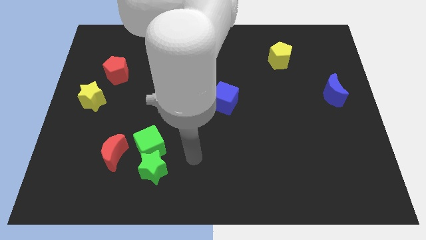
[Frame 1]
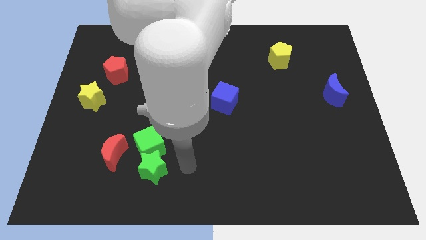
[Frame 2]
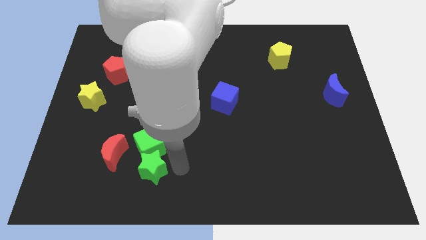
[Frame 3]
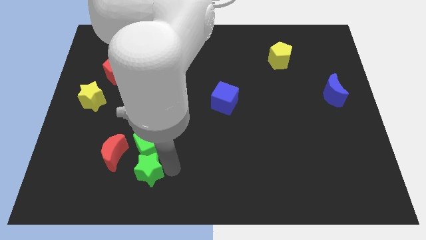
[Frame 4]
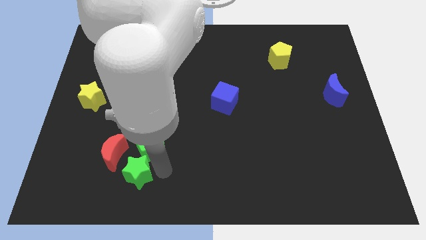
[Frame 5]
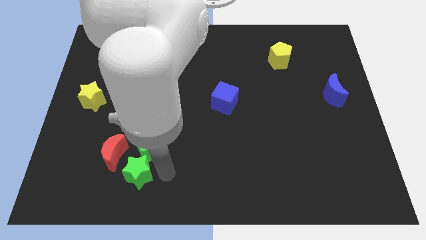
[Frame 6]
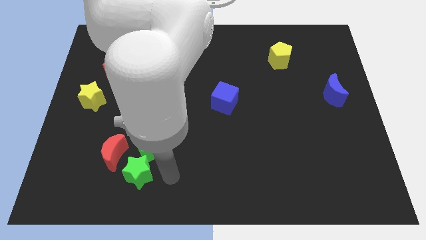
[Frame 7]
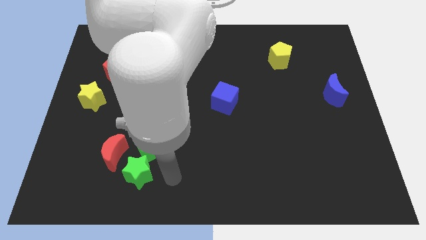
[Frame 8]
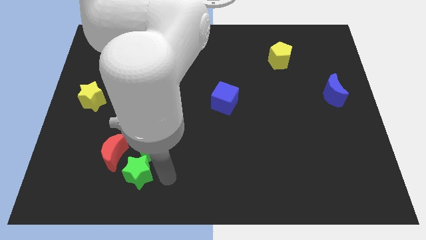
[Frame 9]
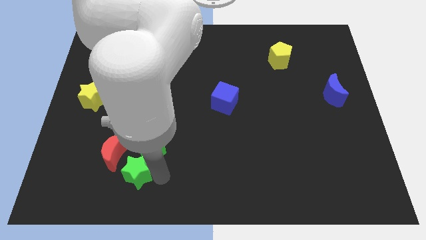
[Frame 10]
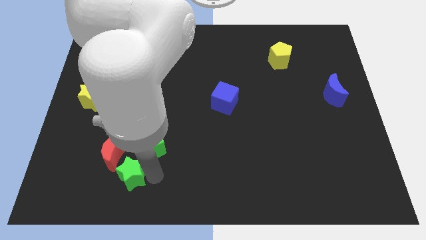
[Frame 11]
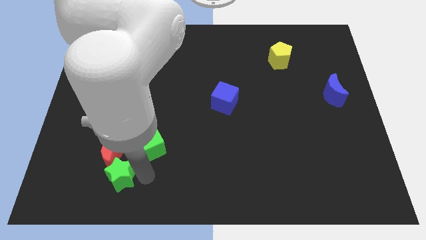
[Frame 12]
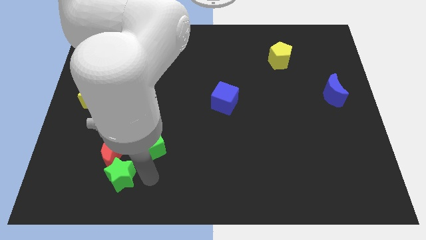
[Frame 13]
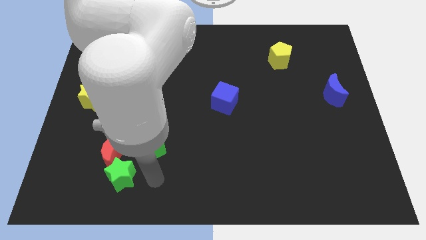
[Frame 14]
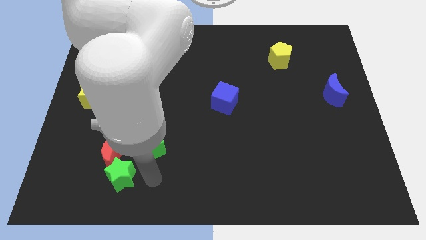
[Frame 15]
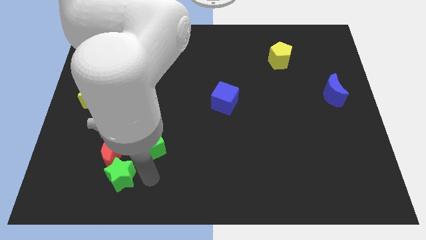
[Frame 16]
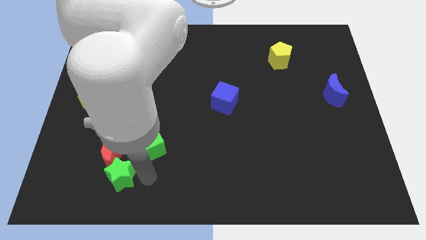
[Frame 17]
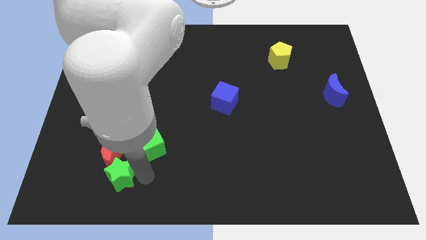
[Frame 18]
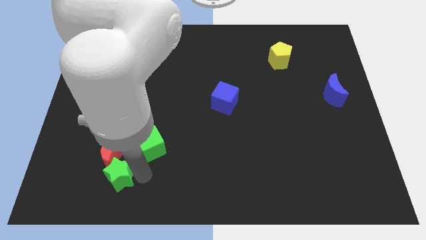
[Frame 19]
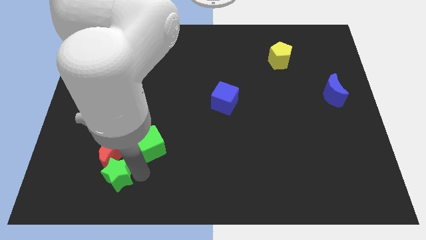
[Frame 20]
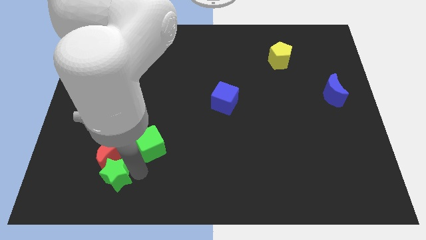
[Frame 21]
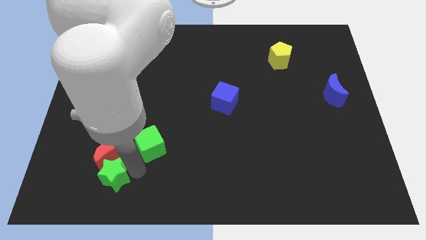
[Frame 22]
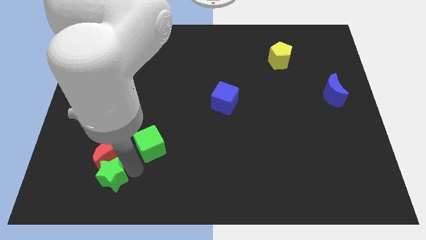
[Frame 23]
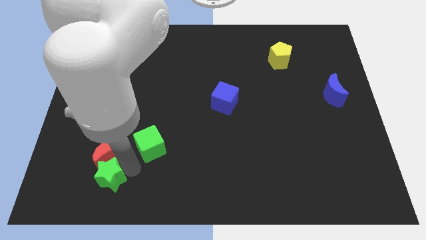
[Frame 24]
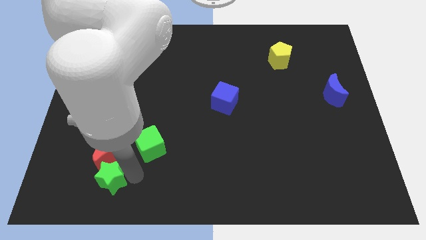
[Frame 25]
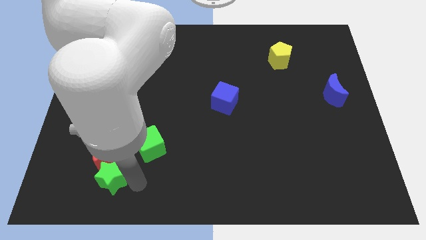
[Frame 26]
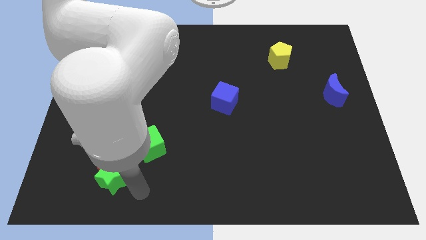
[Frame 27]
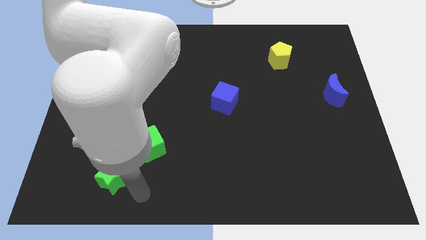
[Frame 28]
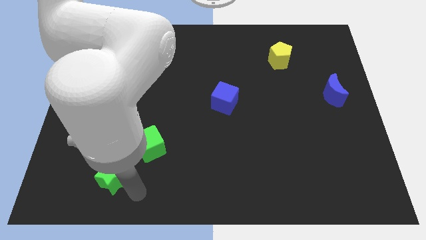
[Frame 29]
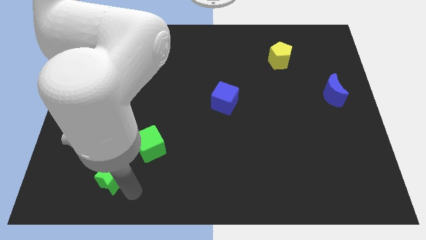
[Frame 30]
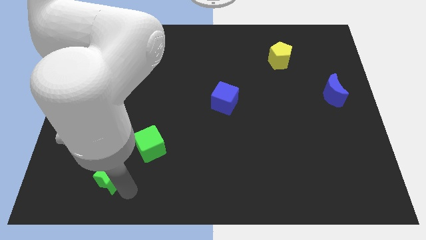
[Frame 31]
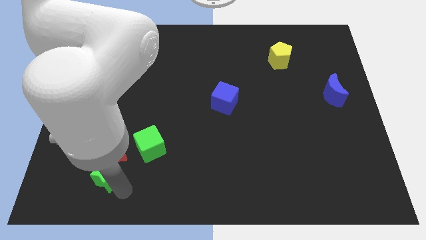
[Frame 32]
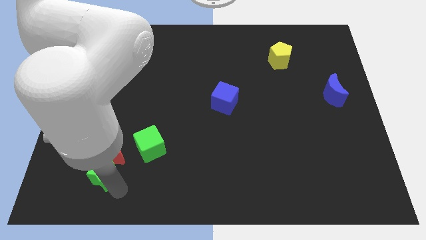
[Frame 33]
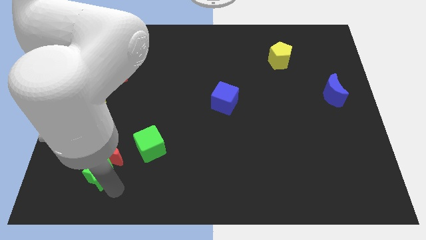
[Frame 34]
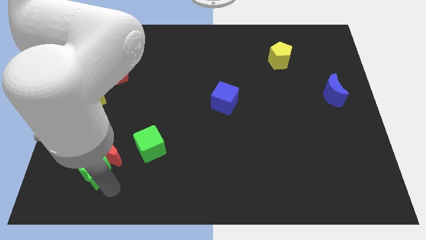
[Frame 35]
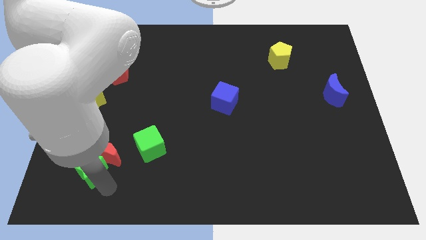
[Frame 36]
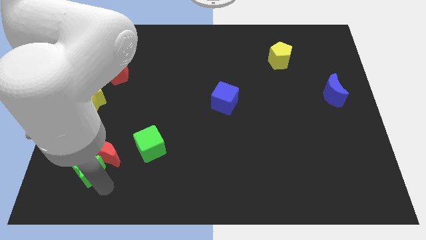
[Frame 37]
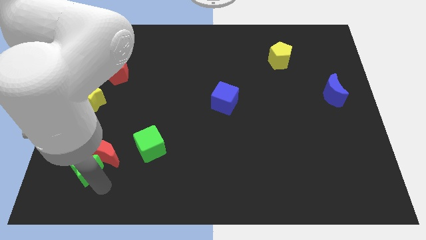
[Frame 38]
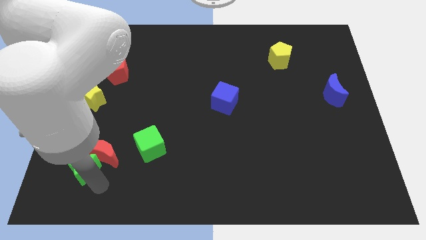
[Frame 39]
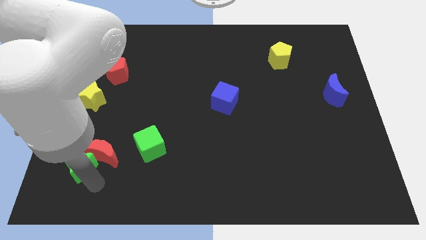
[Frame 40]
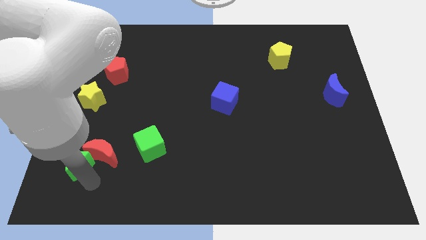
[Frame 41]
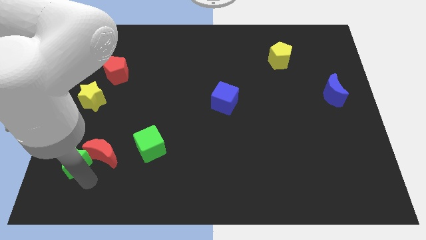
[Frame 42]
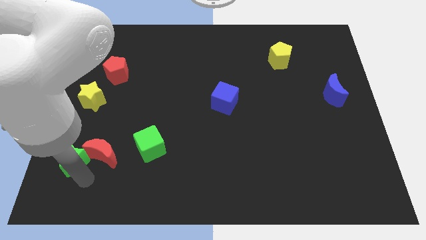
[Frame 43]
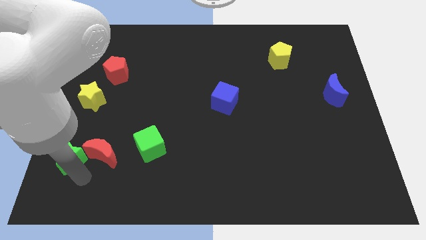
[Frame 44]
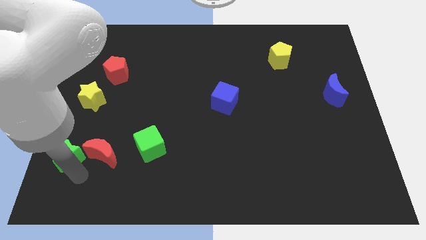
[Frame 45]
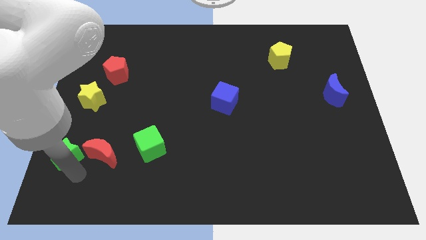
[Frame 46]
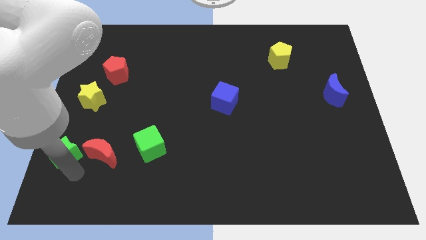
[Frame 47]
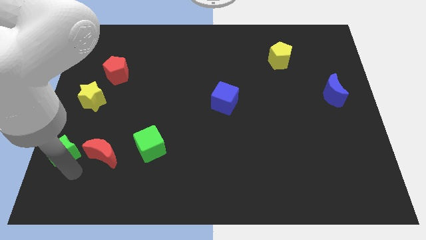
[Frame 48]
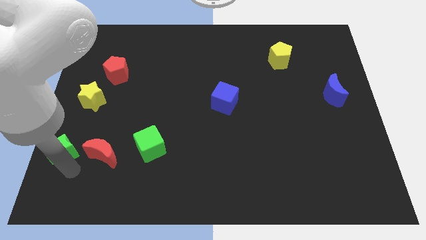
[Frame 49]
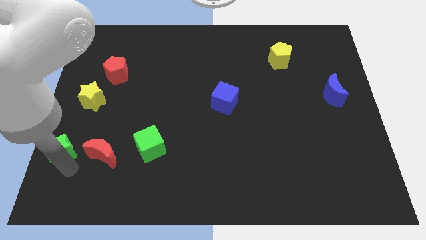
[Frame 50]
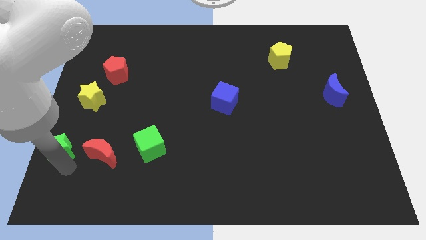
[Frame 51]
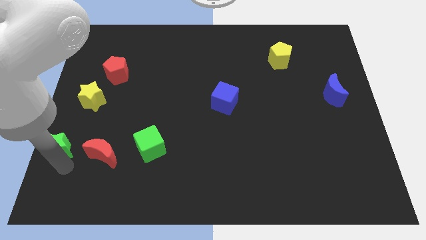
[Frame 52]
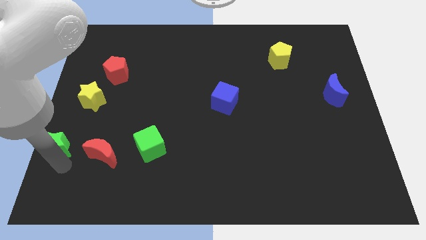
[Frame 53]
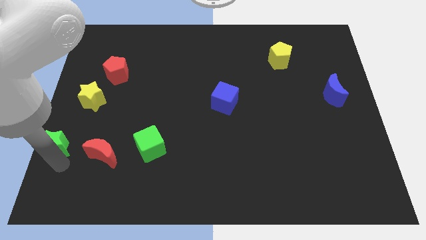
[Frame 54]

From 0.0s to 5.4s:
move the green star to the left side

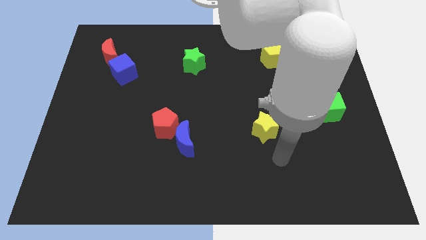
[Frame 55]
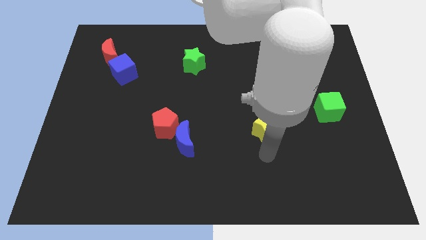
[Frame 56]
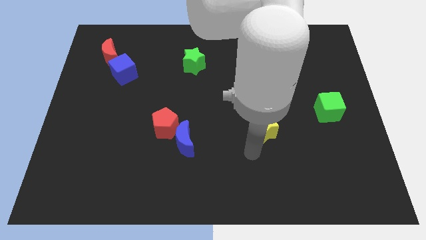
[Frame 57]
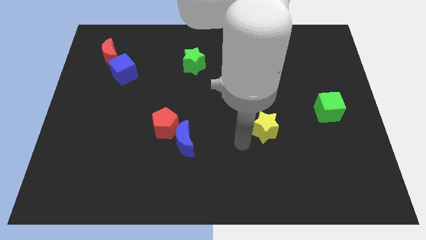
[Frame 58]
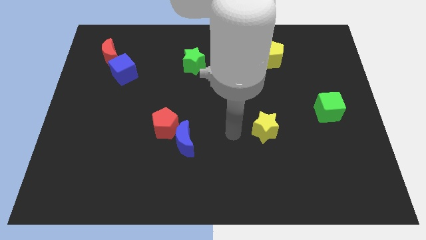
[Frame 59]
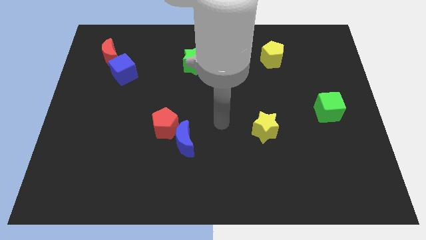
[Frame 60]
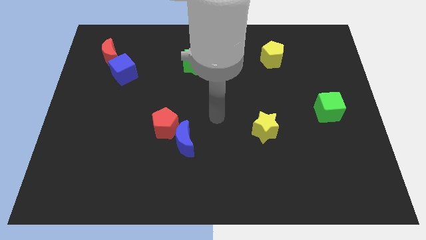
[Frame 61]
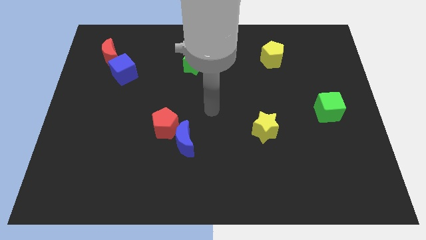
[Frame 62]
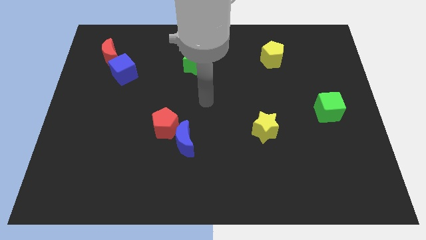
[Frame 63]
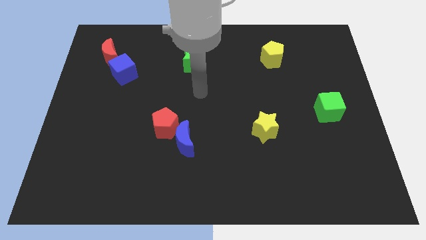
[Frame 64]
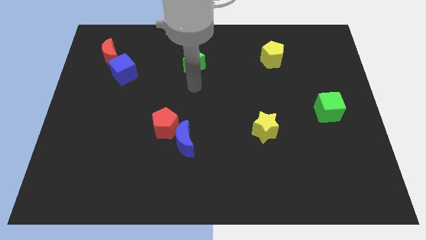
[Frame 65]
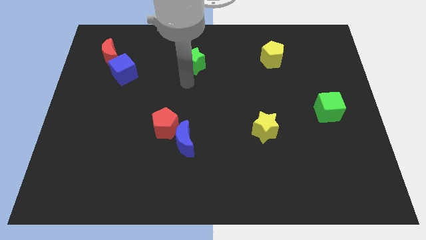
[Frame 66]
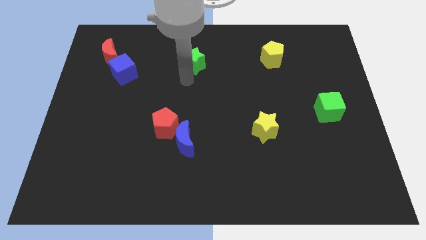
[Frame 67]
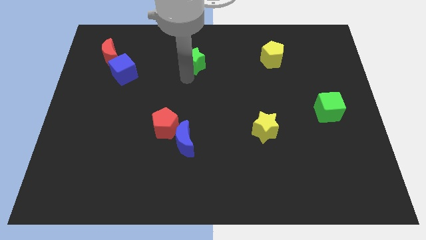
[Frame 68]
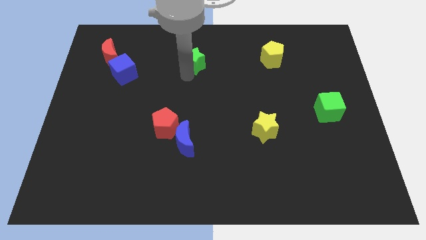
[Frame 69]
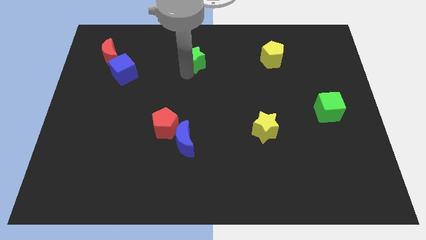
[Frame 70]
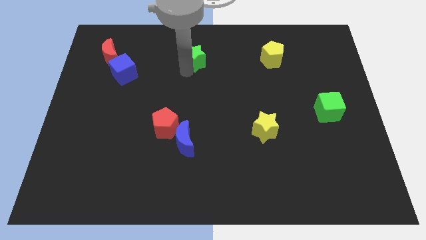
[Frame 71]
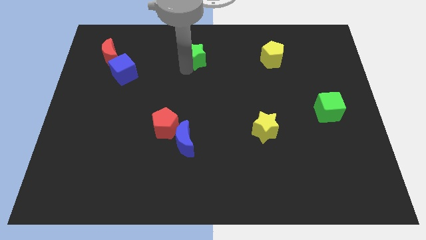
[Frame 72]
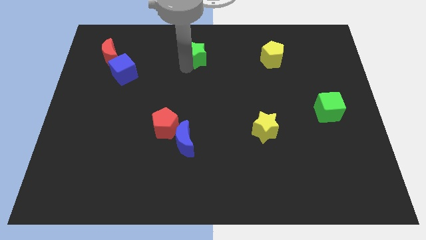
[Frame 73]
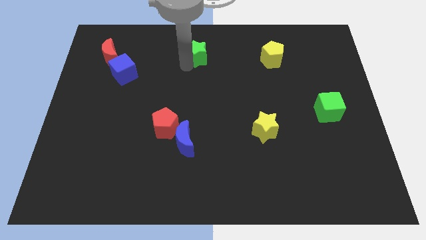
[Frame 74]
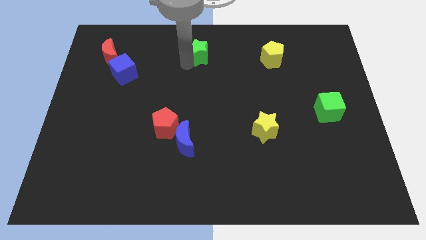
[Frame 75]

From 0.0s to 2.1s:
move the green star to the top
